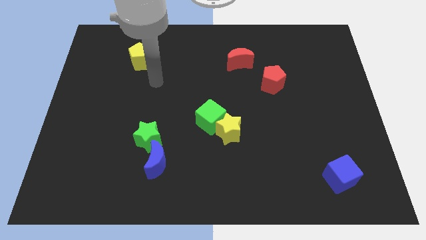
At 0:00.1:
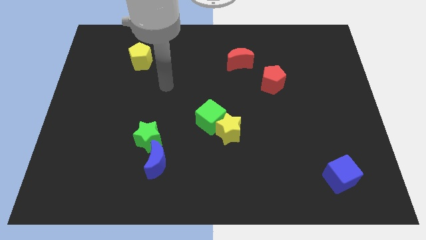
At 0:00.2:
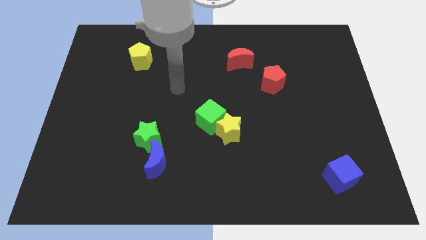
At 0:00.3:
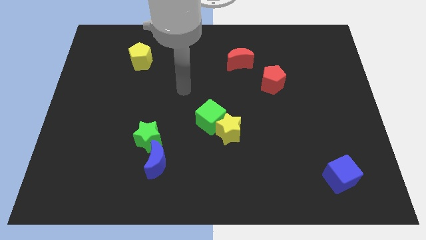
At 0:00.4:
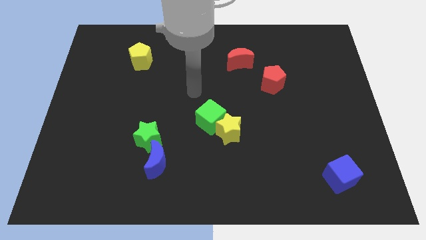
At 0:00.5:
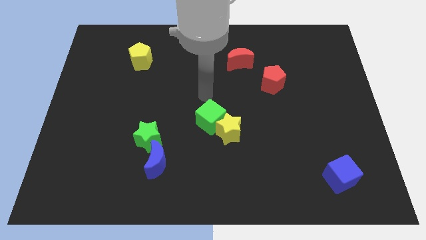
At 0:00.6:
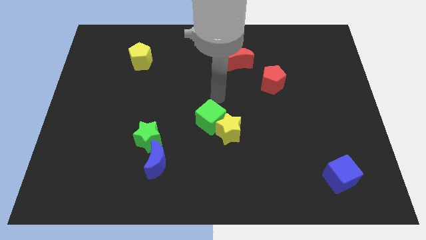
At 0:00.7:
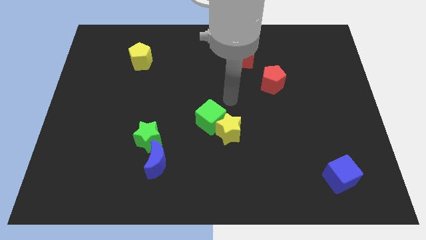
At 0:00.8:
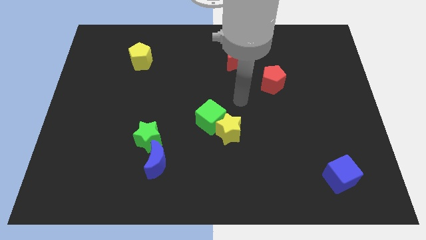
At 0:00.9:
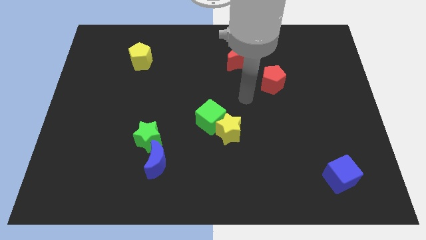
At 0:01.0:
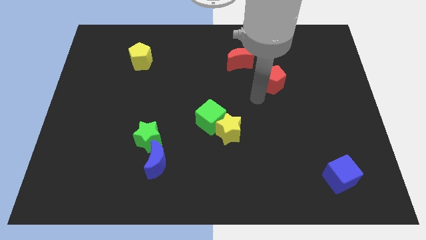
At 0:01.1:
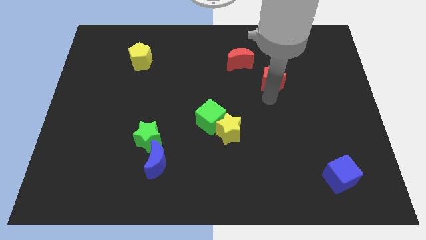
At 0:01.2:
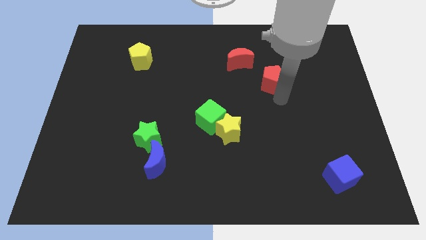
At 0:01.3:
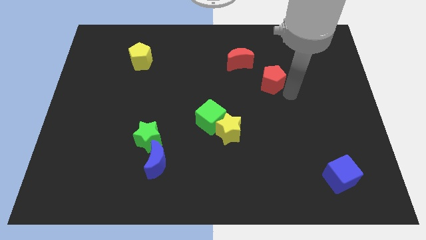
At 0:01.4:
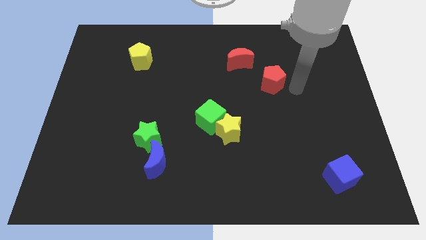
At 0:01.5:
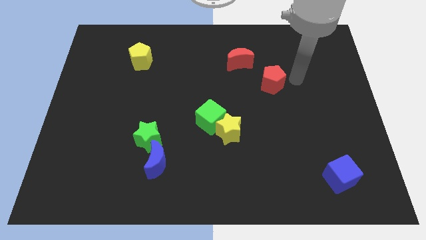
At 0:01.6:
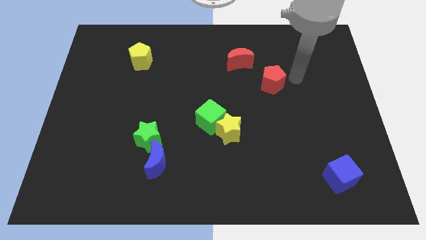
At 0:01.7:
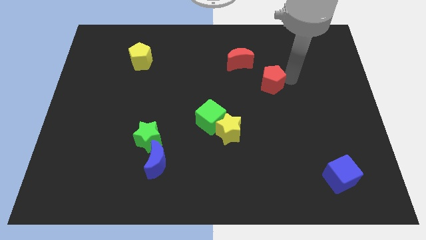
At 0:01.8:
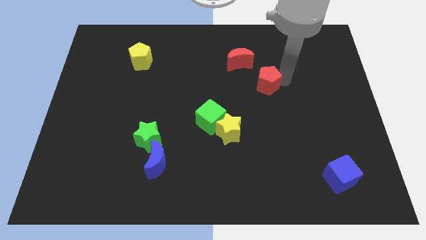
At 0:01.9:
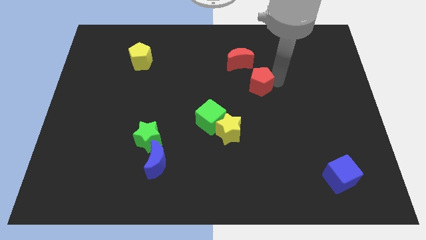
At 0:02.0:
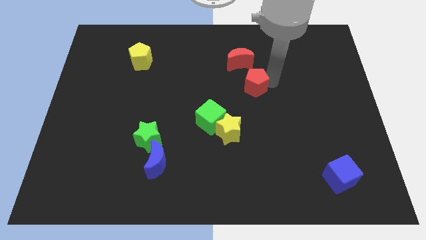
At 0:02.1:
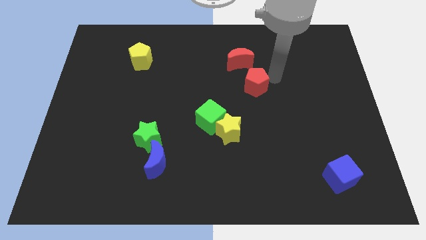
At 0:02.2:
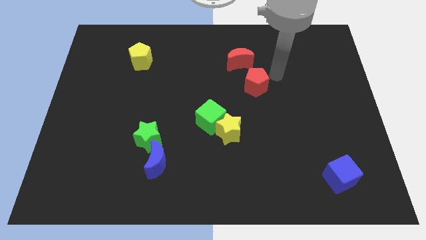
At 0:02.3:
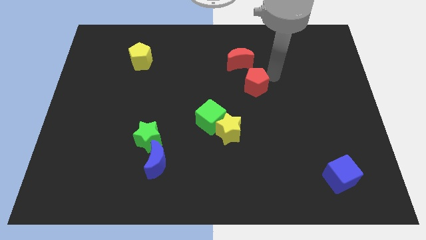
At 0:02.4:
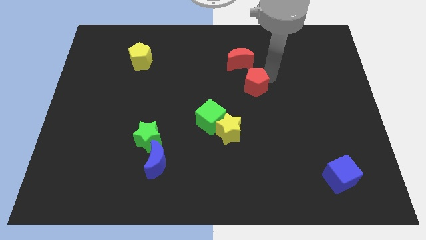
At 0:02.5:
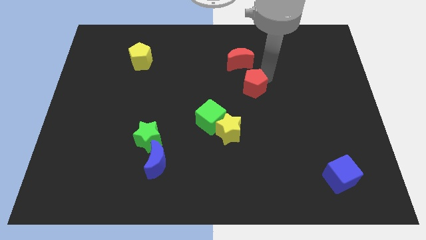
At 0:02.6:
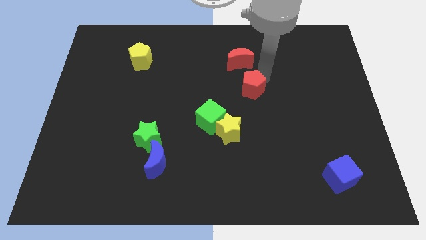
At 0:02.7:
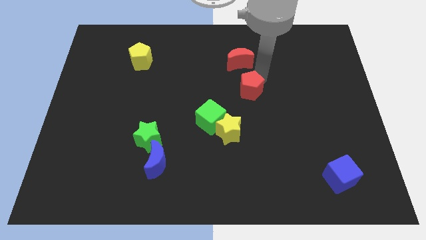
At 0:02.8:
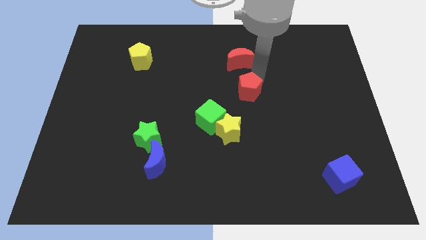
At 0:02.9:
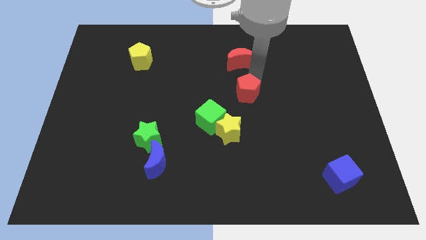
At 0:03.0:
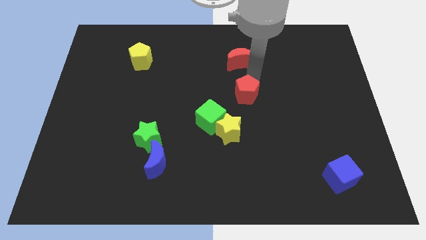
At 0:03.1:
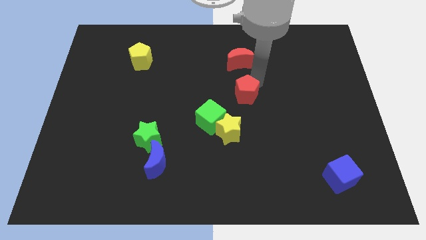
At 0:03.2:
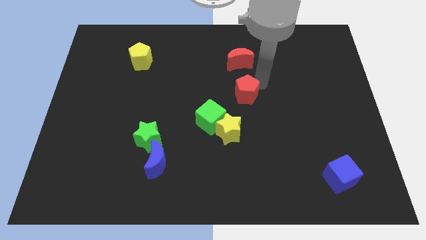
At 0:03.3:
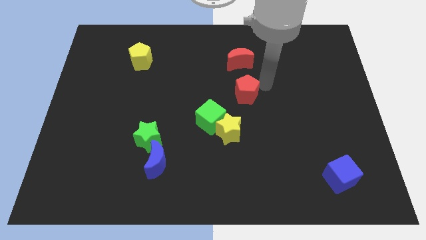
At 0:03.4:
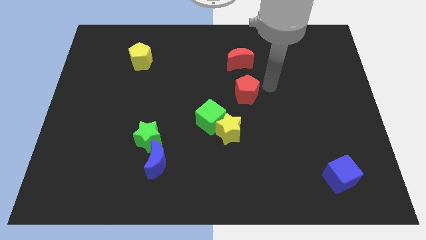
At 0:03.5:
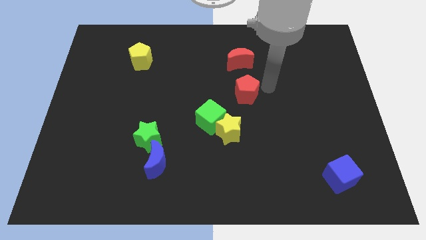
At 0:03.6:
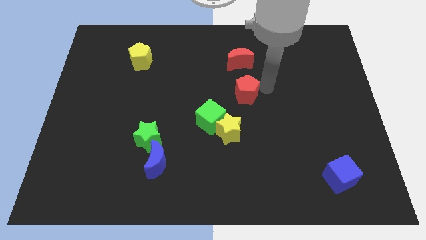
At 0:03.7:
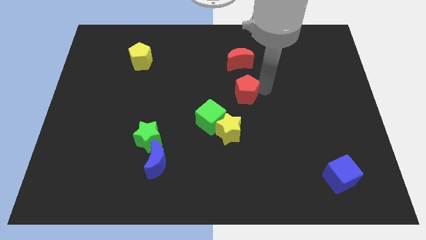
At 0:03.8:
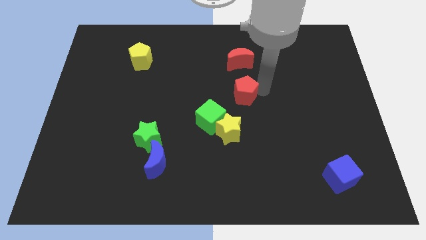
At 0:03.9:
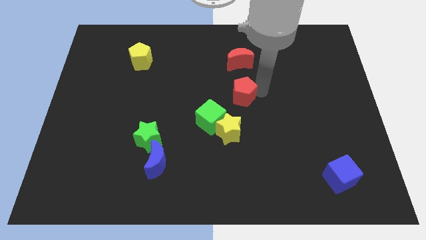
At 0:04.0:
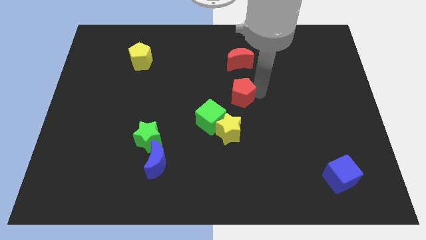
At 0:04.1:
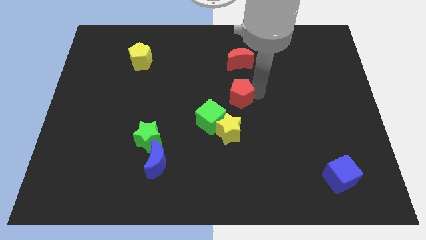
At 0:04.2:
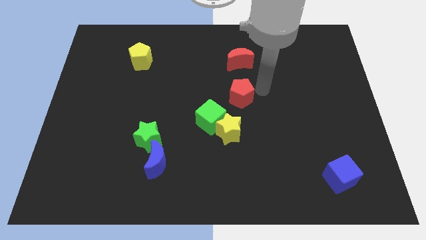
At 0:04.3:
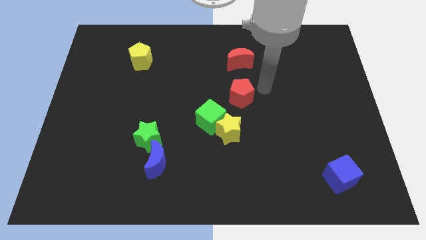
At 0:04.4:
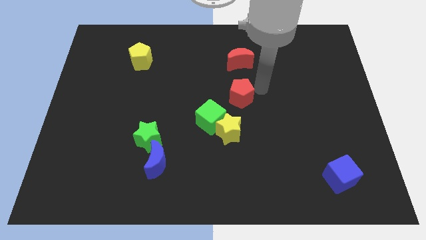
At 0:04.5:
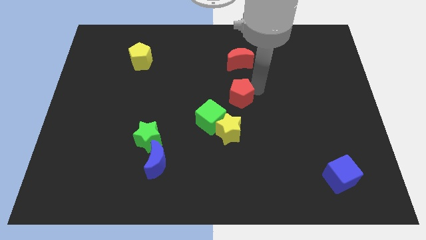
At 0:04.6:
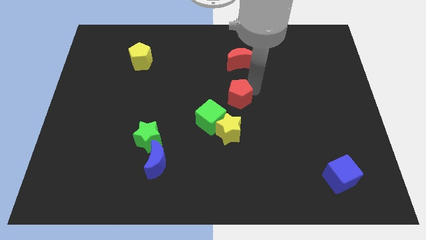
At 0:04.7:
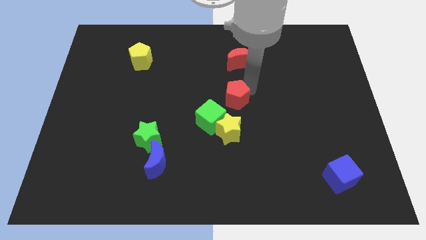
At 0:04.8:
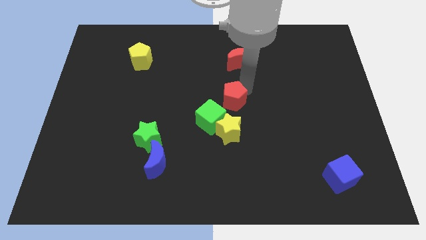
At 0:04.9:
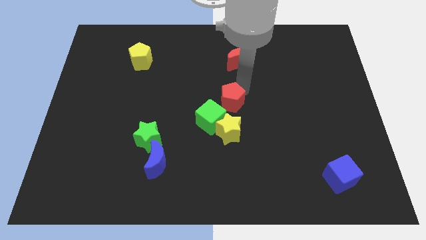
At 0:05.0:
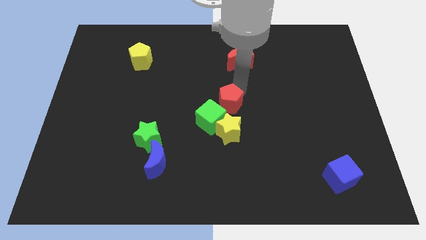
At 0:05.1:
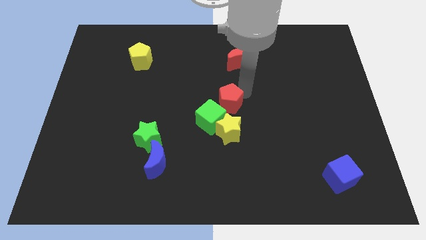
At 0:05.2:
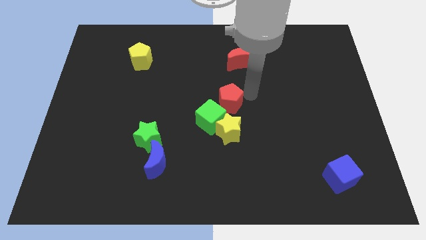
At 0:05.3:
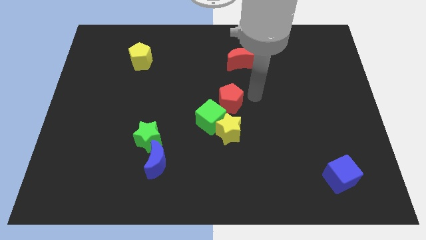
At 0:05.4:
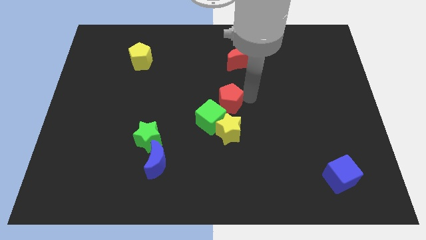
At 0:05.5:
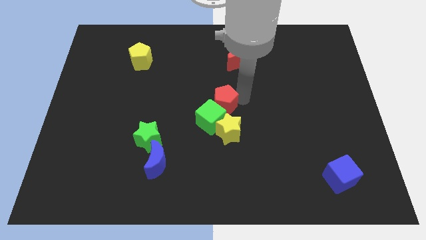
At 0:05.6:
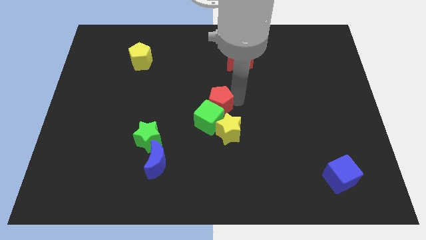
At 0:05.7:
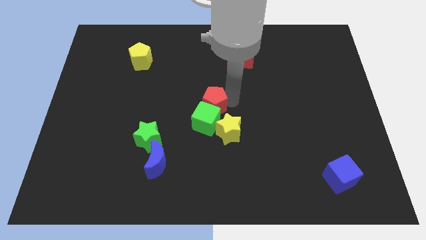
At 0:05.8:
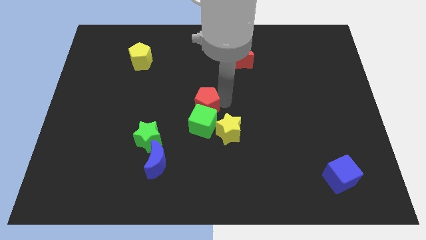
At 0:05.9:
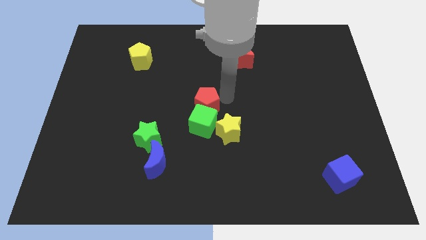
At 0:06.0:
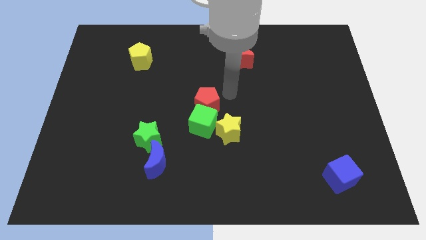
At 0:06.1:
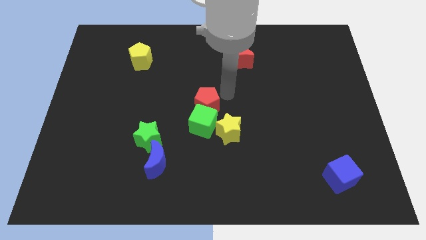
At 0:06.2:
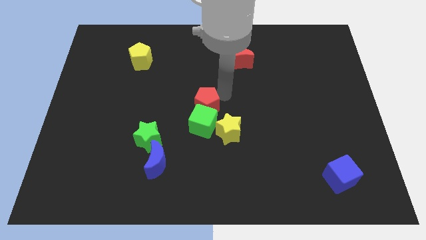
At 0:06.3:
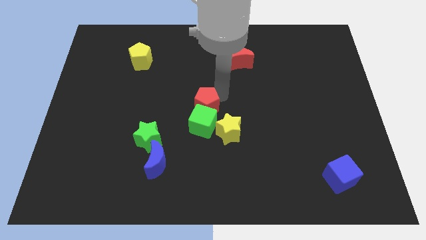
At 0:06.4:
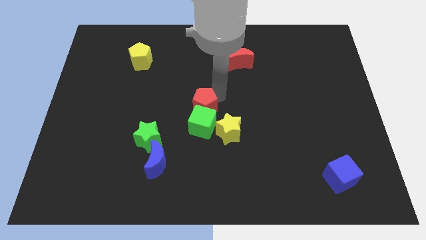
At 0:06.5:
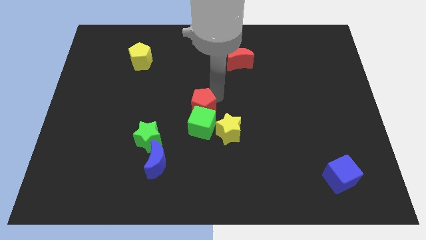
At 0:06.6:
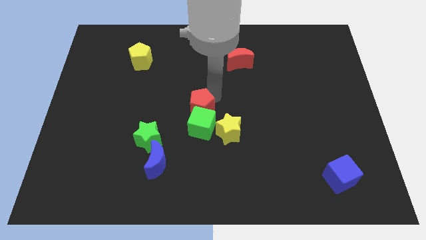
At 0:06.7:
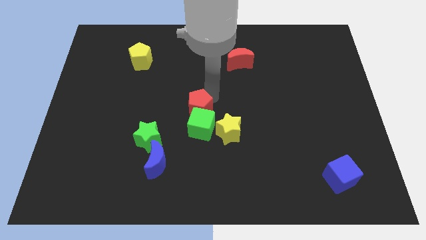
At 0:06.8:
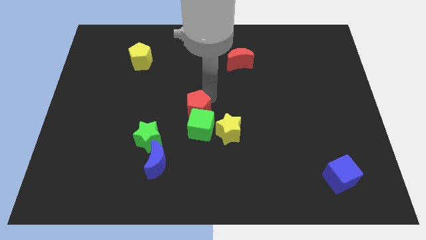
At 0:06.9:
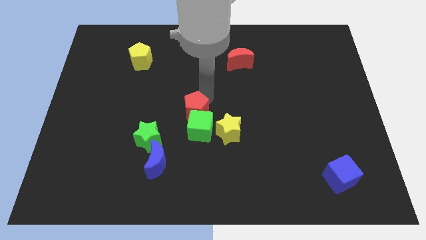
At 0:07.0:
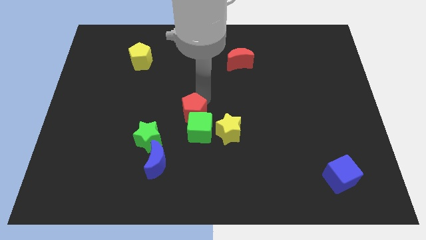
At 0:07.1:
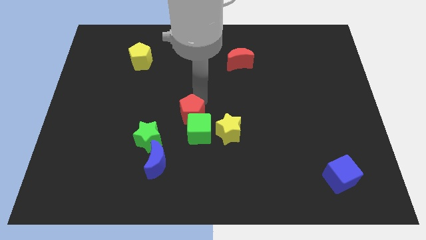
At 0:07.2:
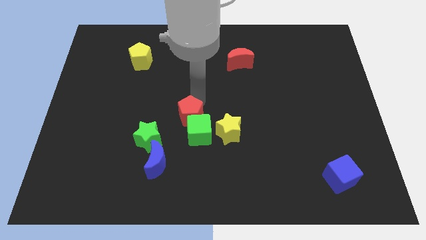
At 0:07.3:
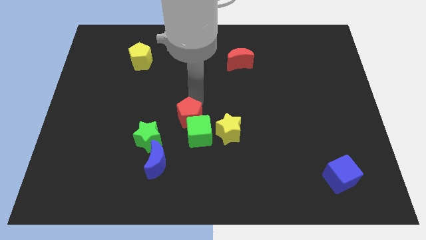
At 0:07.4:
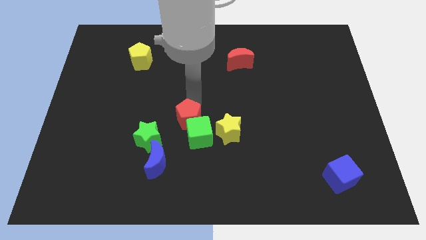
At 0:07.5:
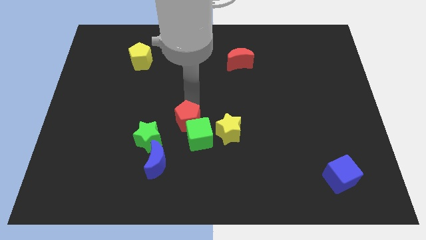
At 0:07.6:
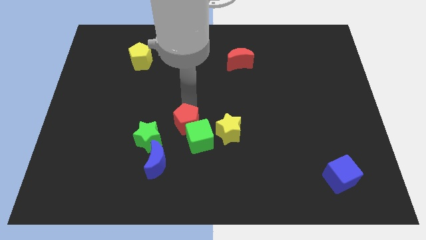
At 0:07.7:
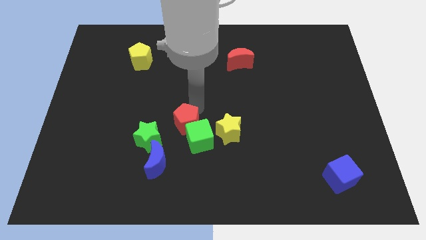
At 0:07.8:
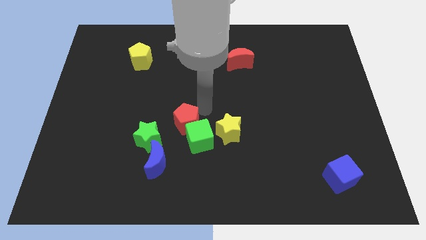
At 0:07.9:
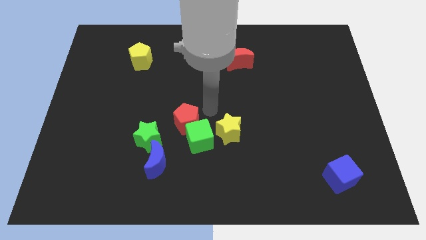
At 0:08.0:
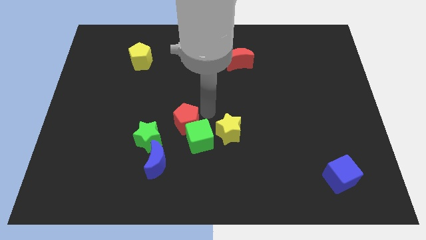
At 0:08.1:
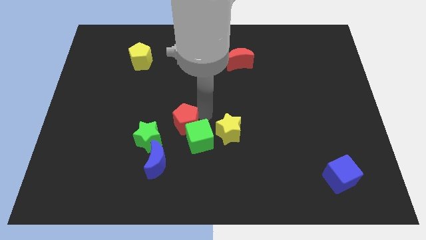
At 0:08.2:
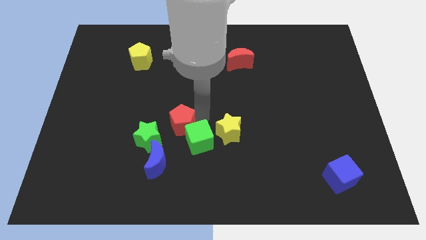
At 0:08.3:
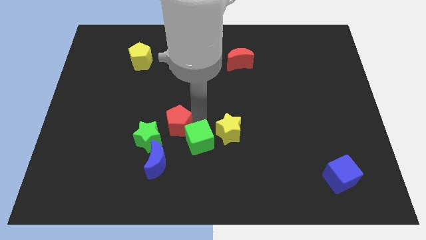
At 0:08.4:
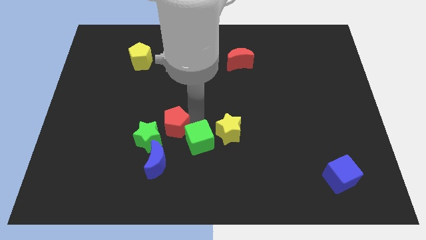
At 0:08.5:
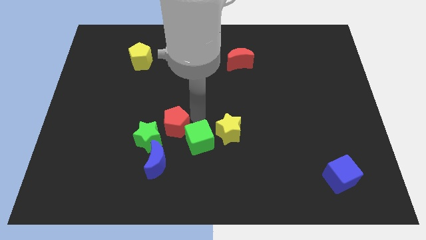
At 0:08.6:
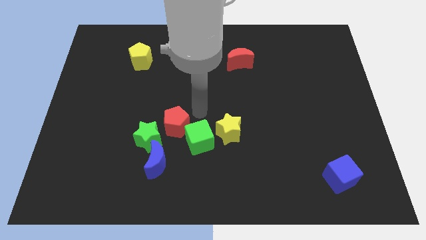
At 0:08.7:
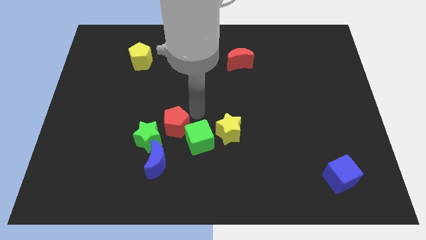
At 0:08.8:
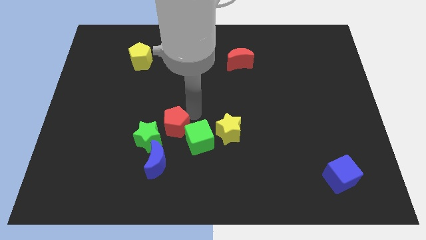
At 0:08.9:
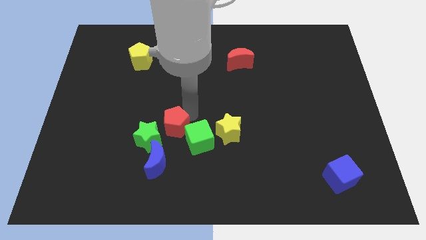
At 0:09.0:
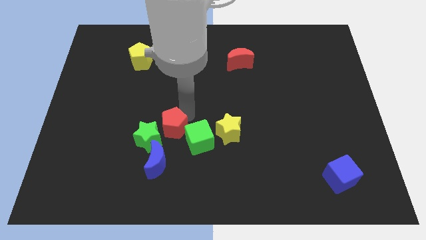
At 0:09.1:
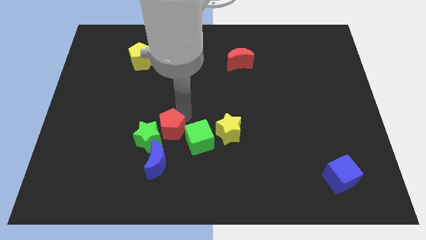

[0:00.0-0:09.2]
push the red pentagon towards the green star
